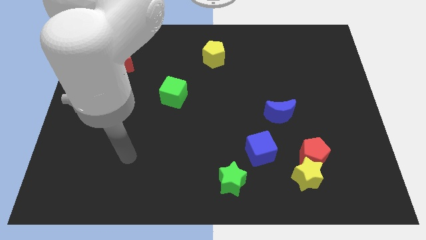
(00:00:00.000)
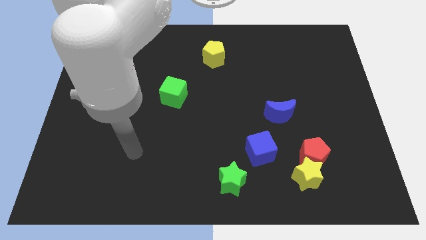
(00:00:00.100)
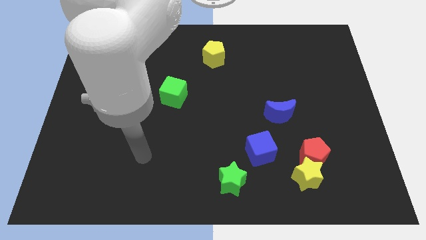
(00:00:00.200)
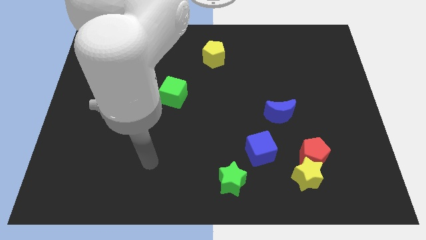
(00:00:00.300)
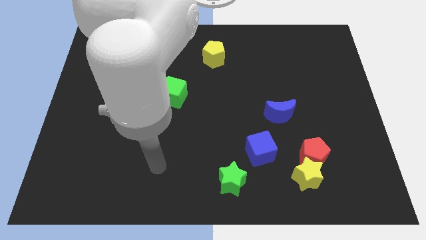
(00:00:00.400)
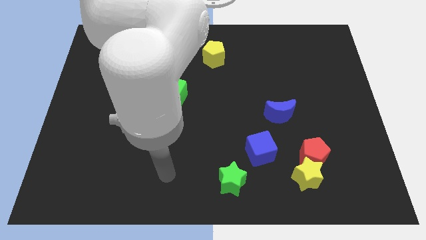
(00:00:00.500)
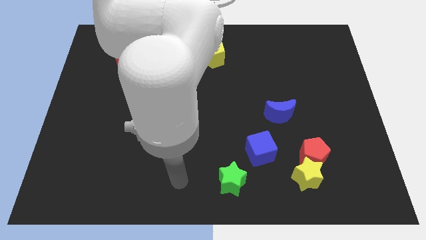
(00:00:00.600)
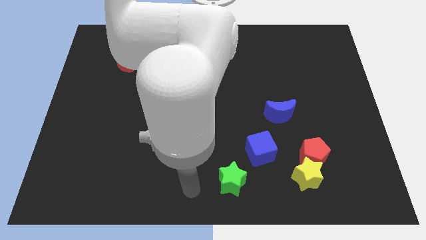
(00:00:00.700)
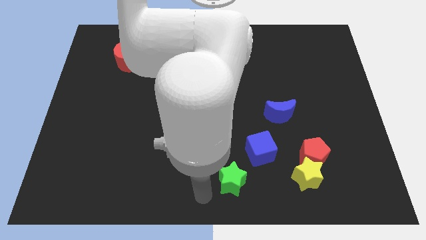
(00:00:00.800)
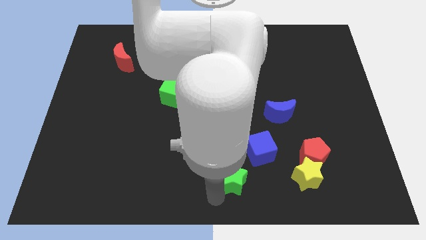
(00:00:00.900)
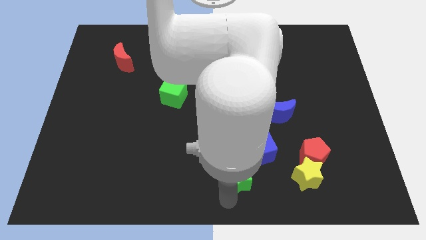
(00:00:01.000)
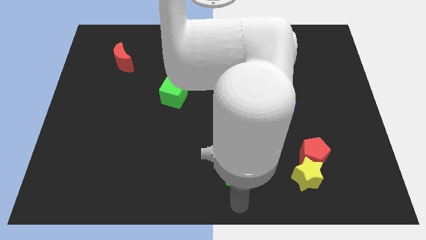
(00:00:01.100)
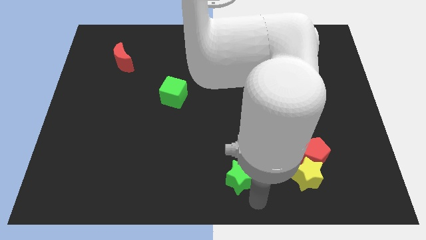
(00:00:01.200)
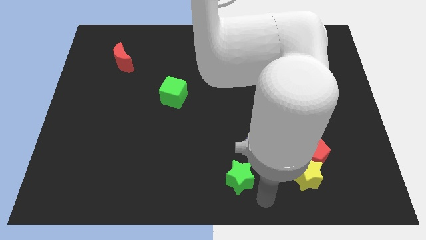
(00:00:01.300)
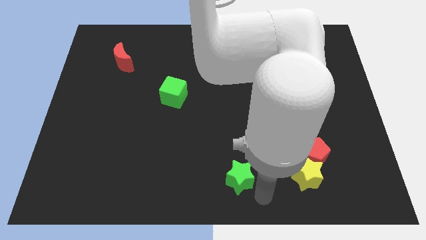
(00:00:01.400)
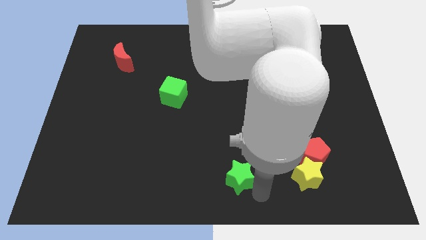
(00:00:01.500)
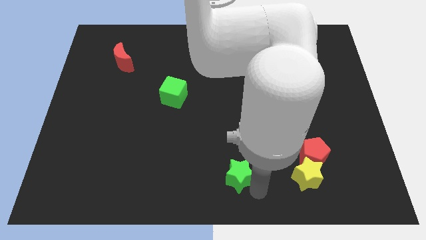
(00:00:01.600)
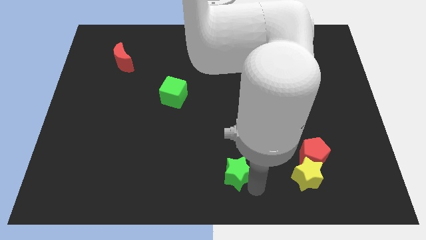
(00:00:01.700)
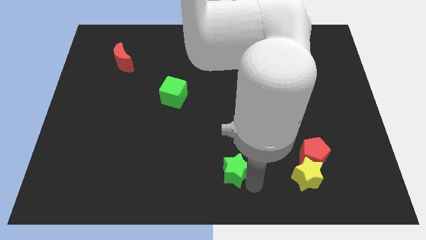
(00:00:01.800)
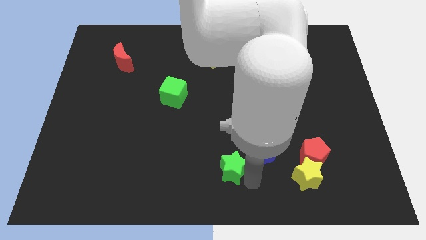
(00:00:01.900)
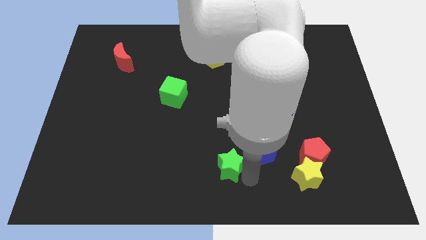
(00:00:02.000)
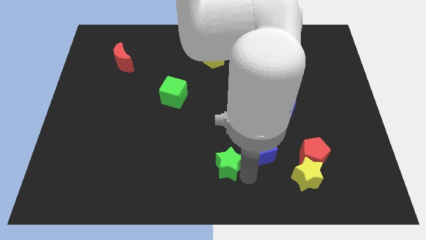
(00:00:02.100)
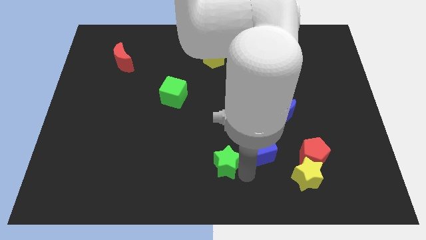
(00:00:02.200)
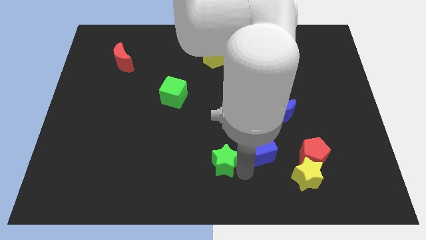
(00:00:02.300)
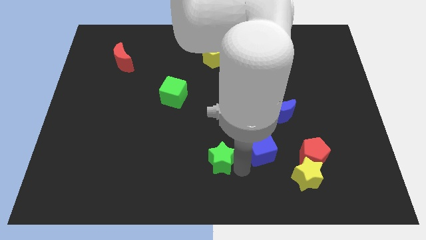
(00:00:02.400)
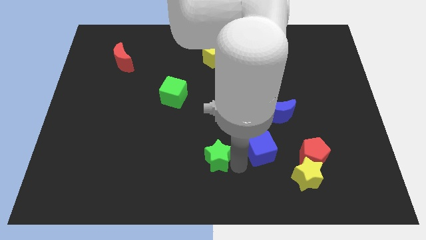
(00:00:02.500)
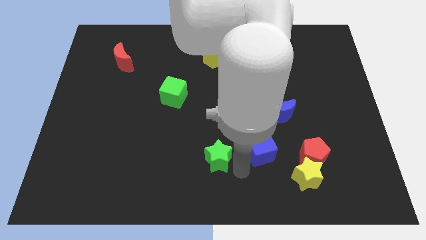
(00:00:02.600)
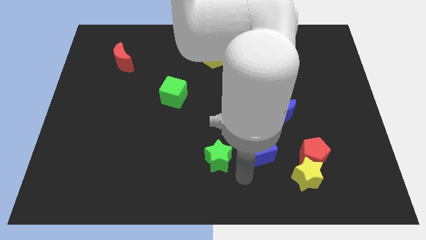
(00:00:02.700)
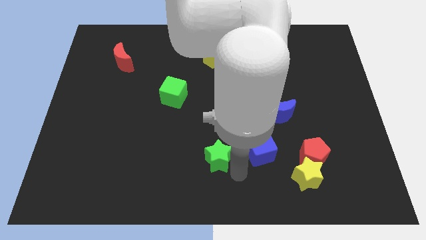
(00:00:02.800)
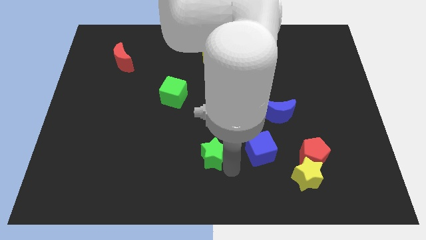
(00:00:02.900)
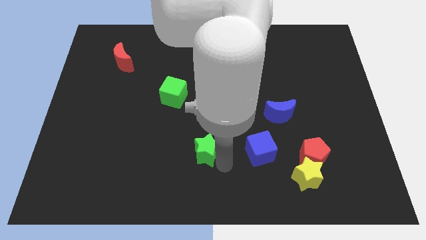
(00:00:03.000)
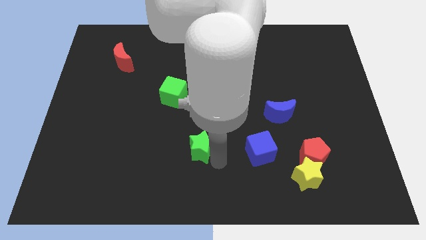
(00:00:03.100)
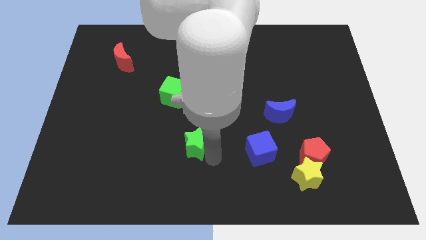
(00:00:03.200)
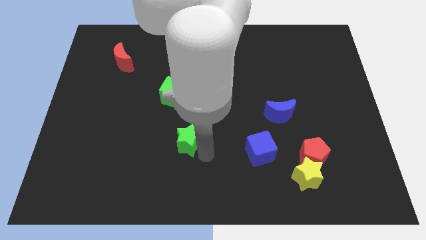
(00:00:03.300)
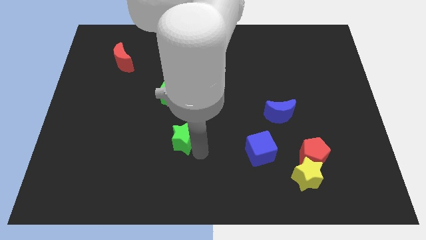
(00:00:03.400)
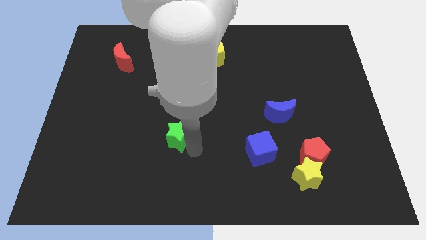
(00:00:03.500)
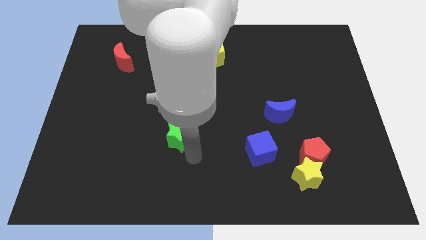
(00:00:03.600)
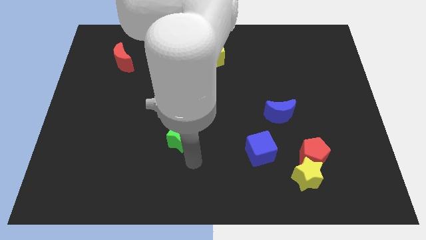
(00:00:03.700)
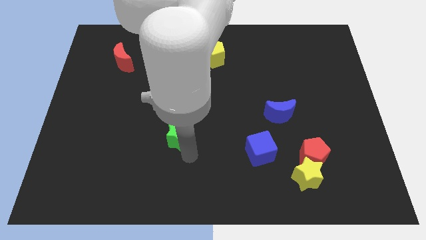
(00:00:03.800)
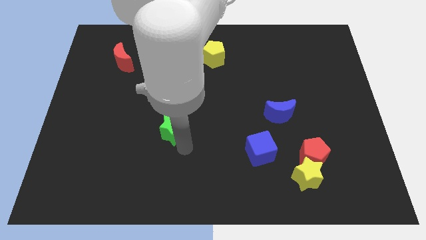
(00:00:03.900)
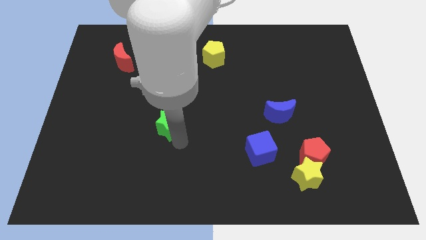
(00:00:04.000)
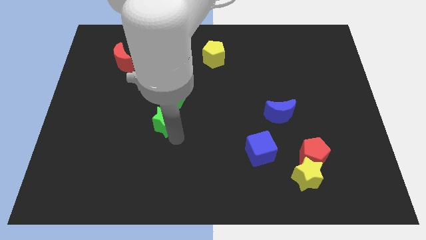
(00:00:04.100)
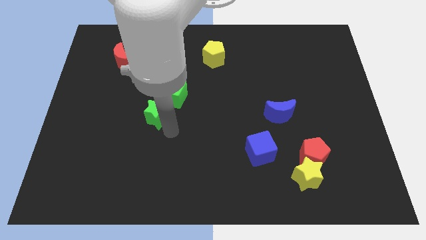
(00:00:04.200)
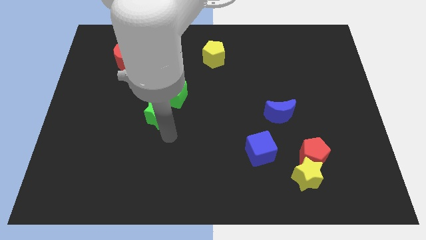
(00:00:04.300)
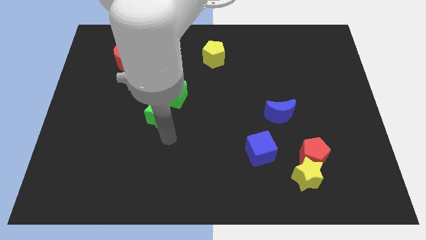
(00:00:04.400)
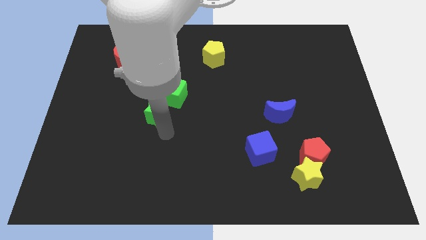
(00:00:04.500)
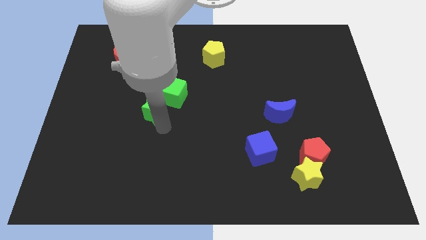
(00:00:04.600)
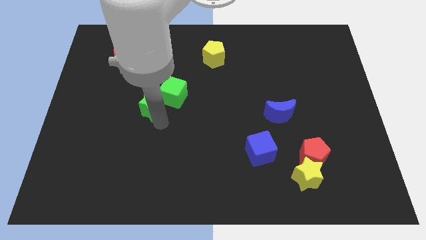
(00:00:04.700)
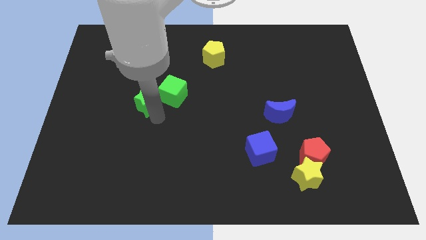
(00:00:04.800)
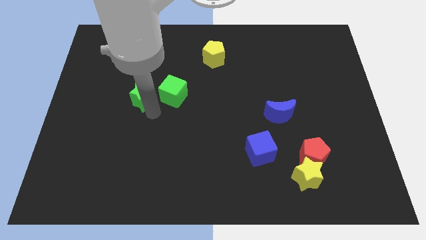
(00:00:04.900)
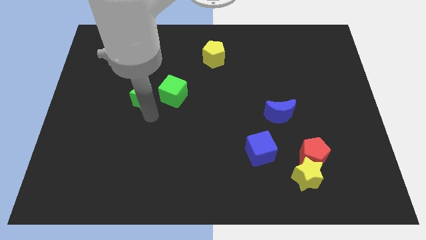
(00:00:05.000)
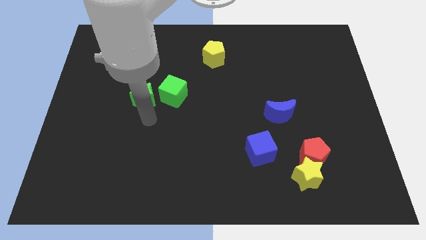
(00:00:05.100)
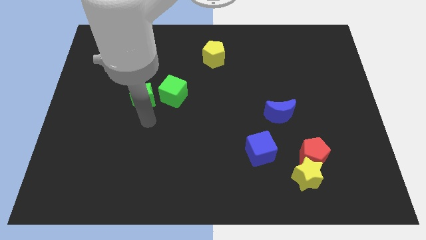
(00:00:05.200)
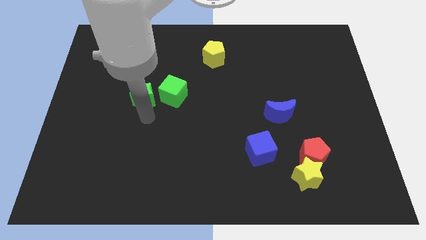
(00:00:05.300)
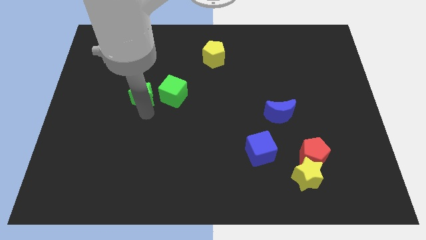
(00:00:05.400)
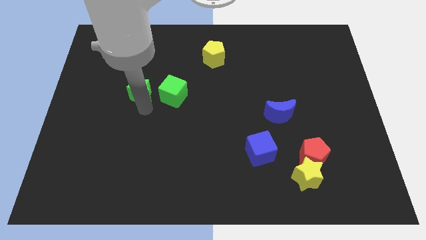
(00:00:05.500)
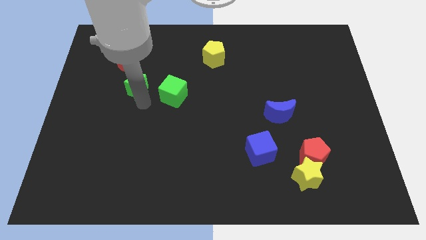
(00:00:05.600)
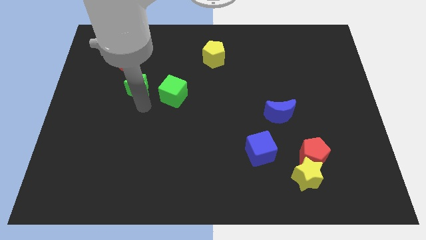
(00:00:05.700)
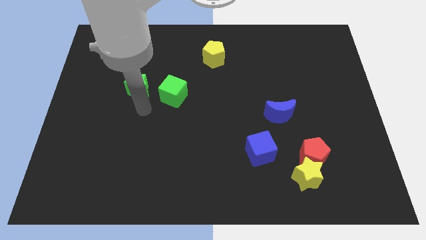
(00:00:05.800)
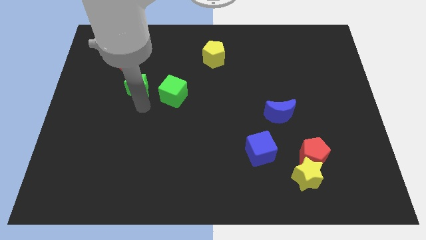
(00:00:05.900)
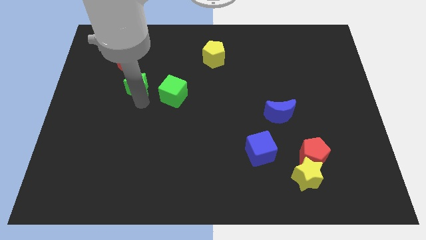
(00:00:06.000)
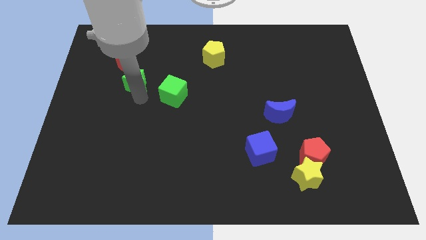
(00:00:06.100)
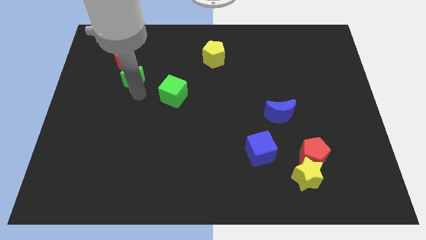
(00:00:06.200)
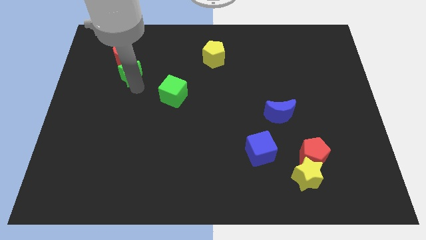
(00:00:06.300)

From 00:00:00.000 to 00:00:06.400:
push the green star close to the red moon
